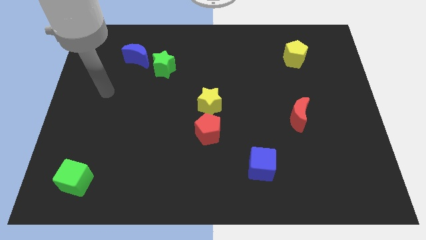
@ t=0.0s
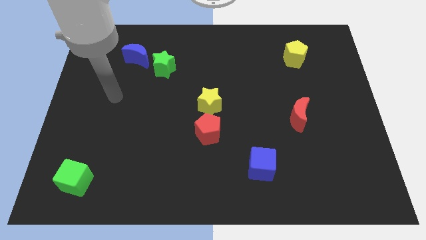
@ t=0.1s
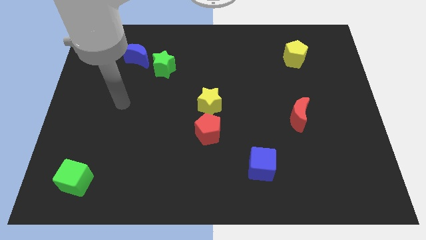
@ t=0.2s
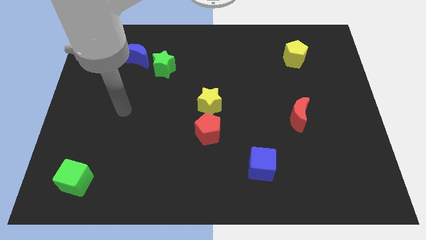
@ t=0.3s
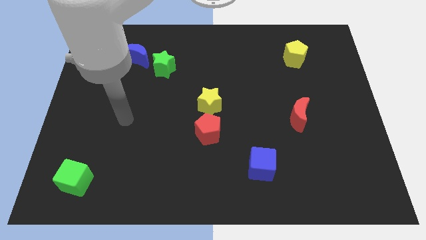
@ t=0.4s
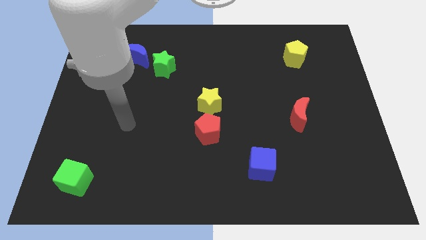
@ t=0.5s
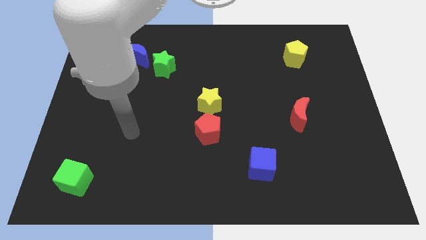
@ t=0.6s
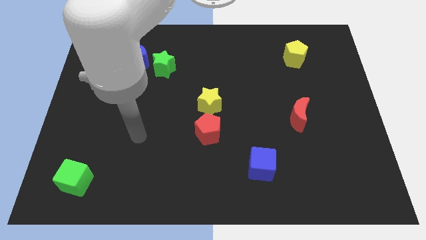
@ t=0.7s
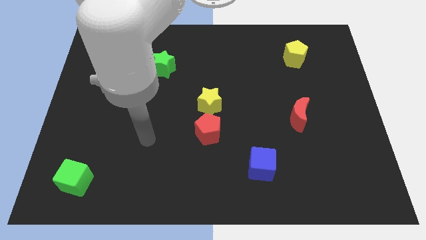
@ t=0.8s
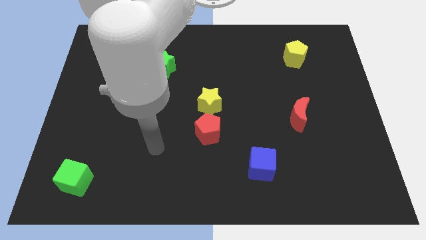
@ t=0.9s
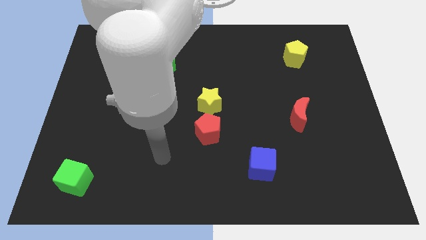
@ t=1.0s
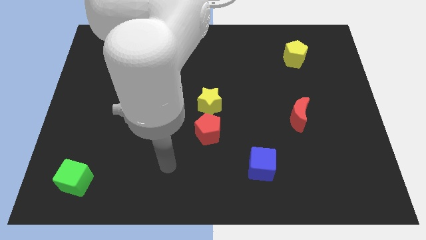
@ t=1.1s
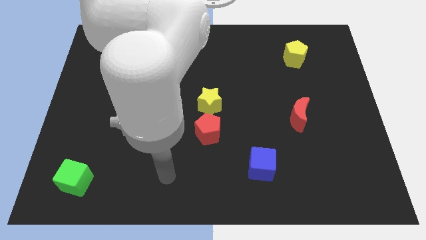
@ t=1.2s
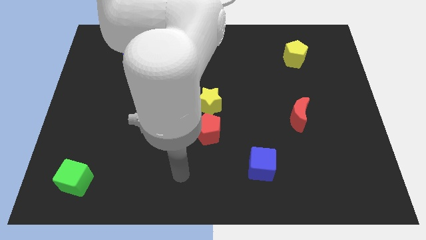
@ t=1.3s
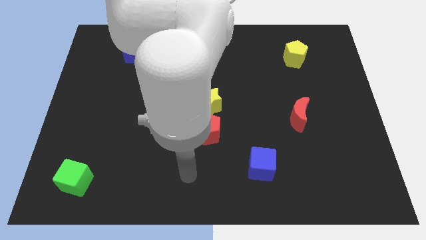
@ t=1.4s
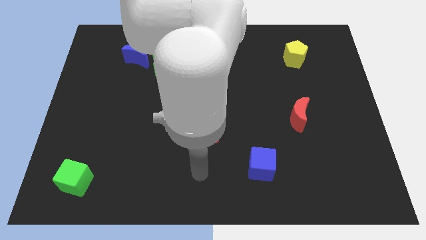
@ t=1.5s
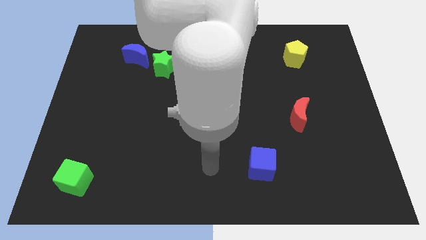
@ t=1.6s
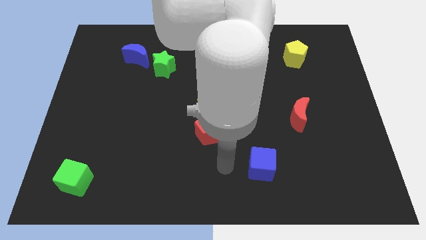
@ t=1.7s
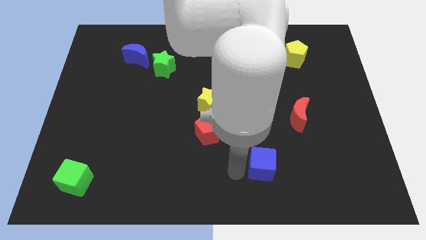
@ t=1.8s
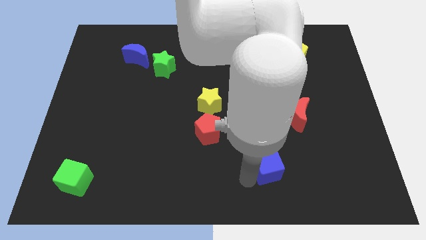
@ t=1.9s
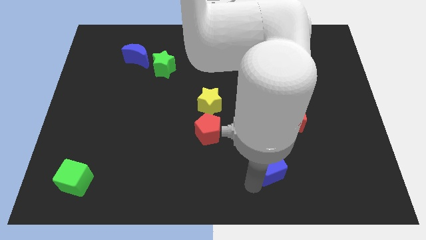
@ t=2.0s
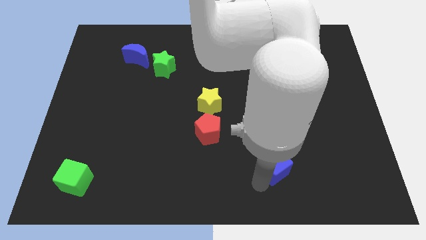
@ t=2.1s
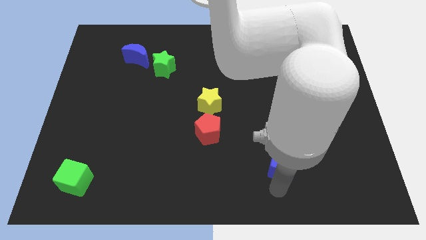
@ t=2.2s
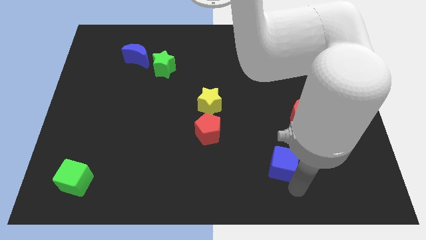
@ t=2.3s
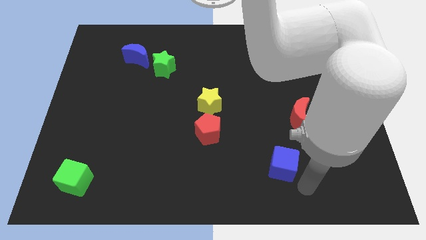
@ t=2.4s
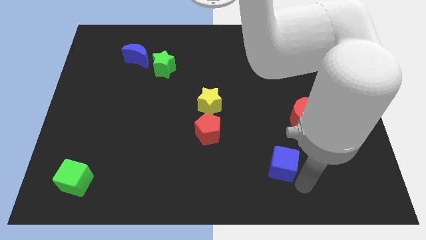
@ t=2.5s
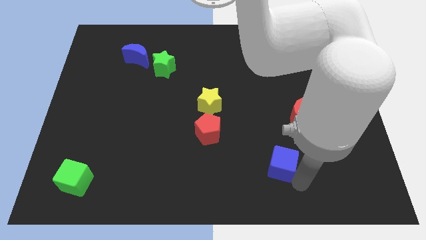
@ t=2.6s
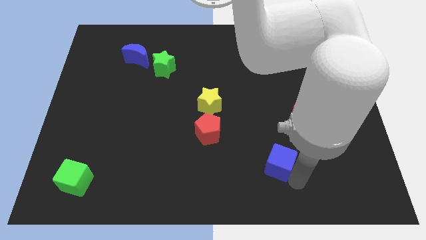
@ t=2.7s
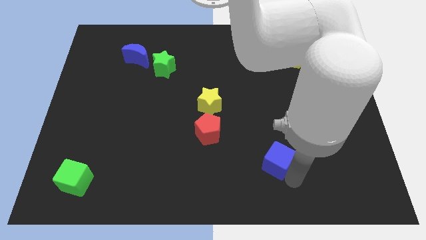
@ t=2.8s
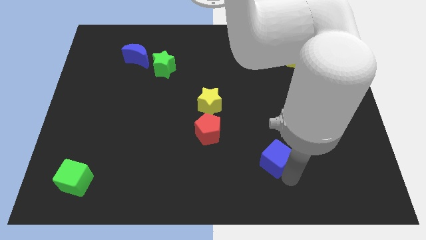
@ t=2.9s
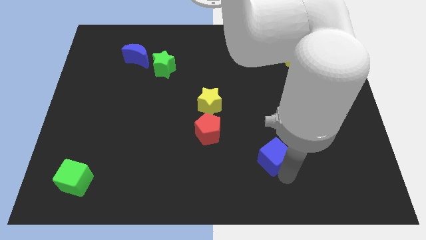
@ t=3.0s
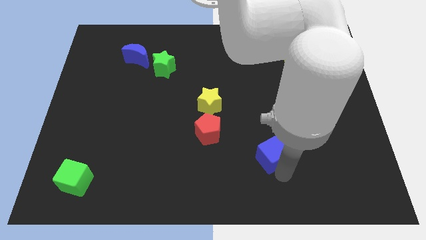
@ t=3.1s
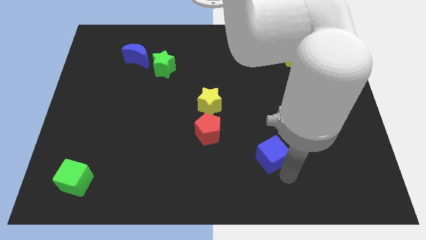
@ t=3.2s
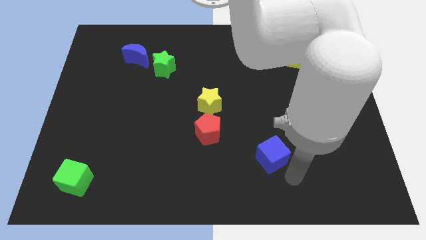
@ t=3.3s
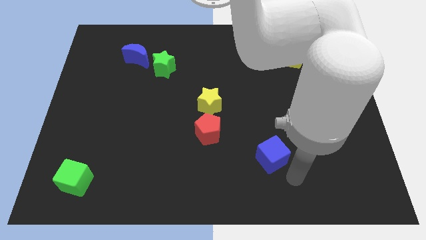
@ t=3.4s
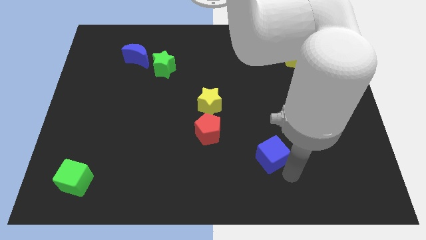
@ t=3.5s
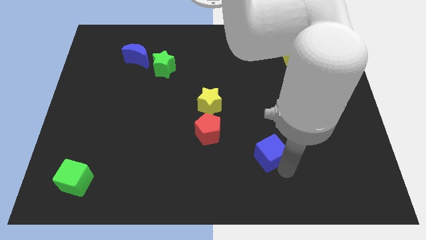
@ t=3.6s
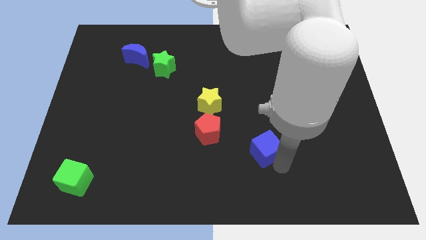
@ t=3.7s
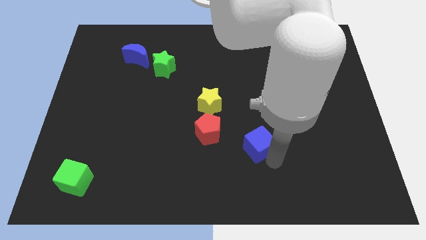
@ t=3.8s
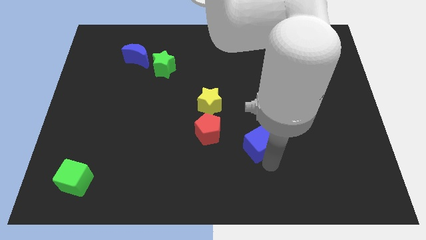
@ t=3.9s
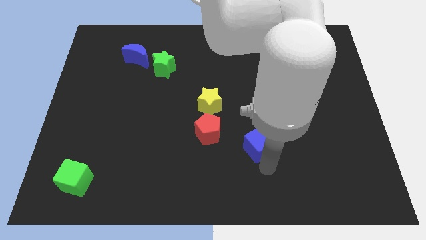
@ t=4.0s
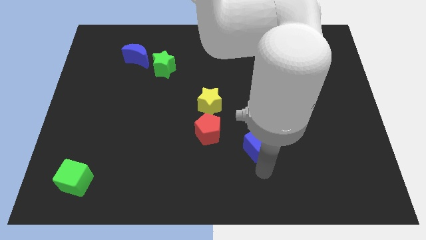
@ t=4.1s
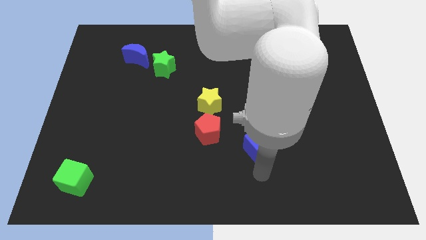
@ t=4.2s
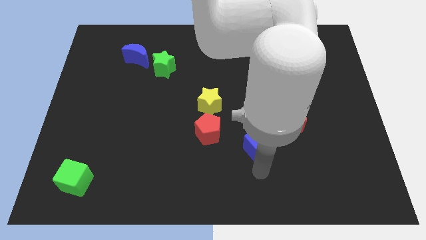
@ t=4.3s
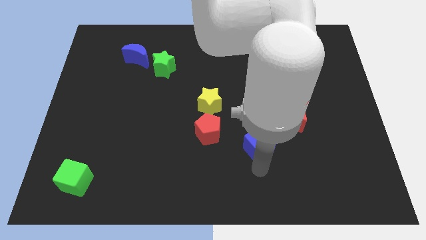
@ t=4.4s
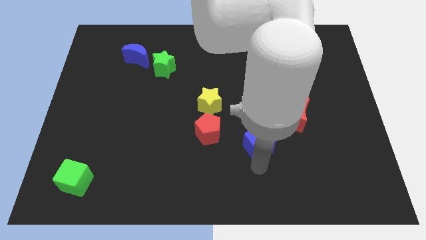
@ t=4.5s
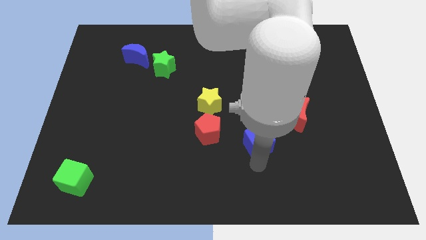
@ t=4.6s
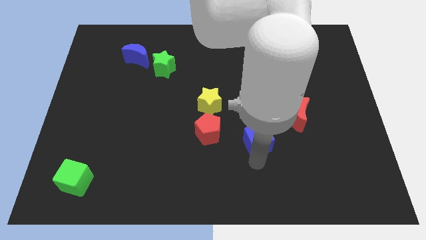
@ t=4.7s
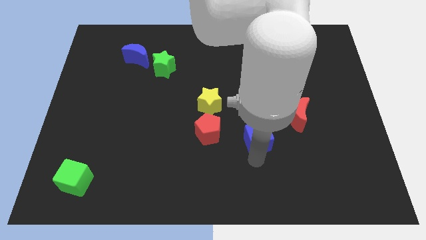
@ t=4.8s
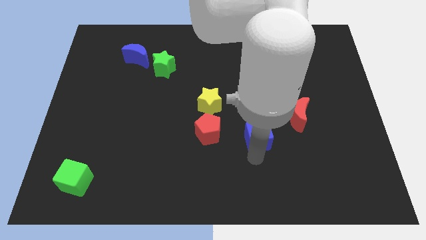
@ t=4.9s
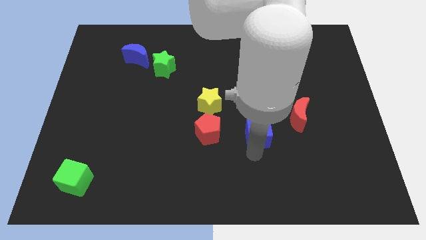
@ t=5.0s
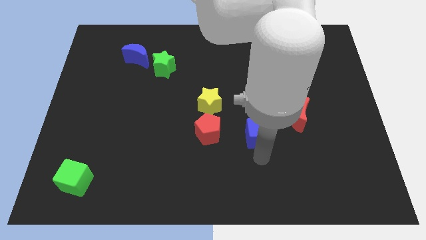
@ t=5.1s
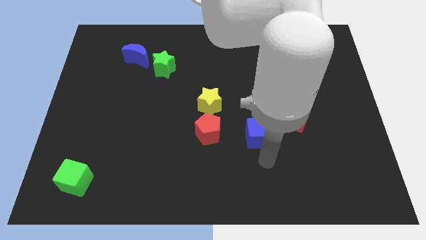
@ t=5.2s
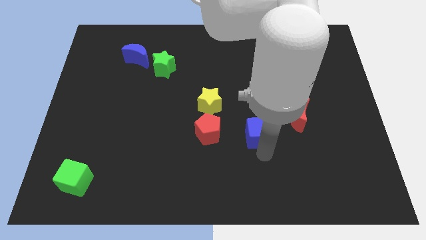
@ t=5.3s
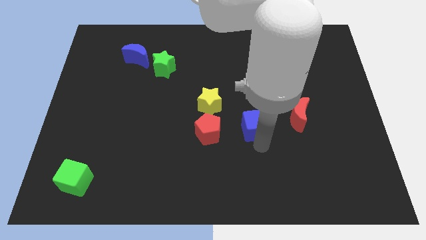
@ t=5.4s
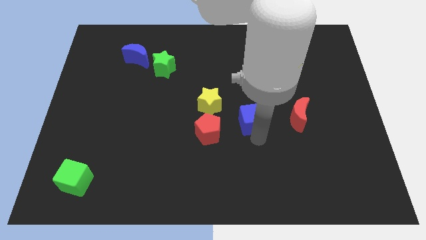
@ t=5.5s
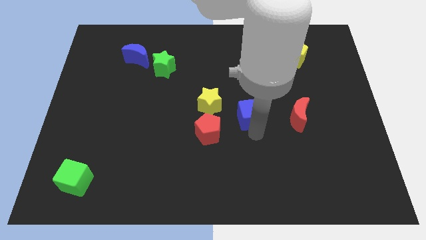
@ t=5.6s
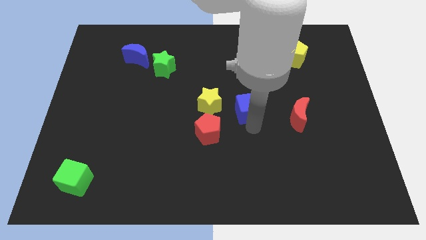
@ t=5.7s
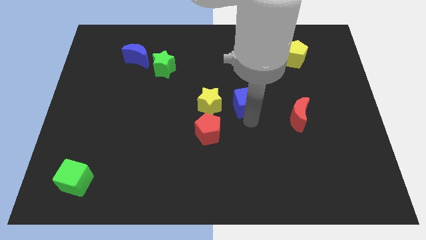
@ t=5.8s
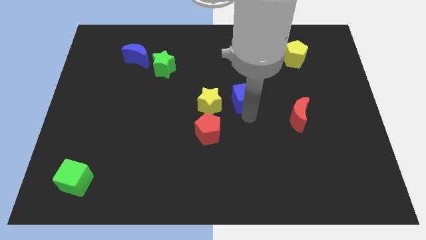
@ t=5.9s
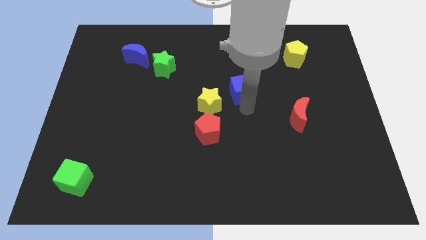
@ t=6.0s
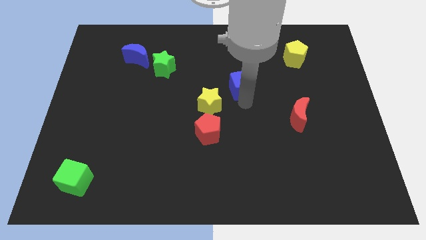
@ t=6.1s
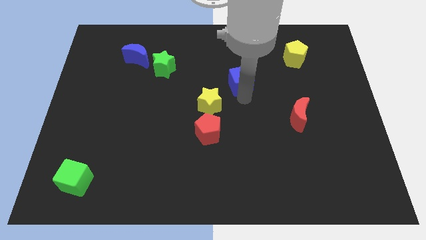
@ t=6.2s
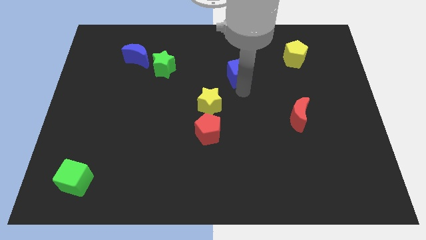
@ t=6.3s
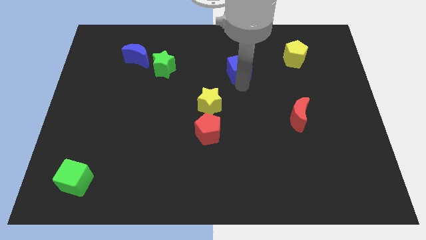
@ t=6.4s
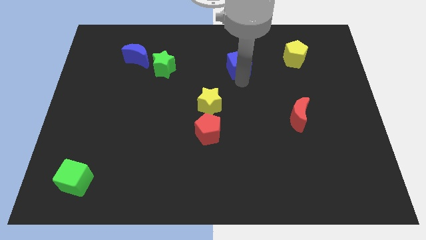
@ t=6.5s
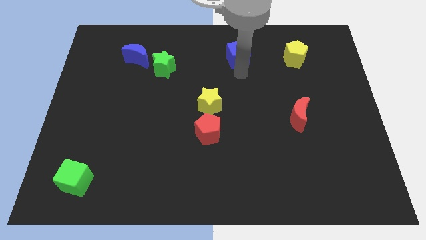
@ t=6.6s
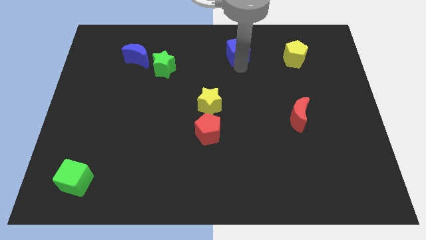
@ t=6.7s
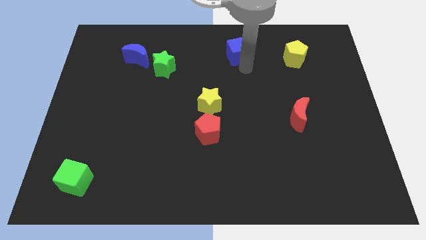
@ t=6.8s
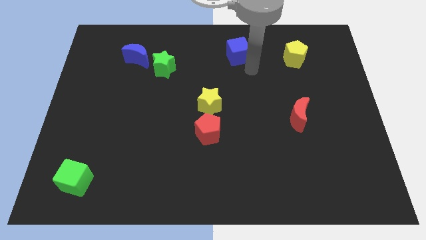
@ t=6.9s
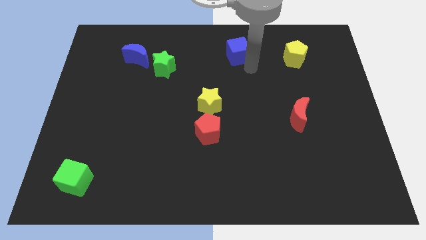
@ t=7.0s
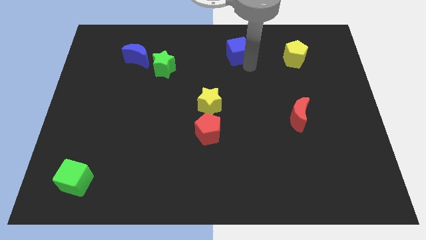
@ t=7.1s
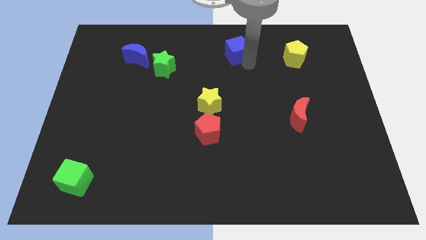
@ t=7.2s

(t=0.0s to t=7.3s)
slide the blue cube to the top
